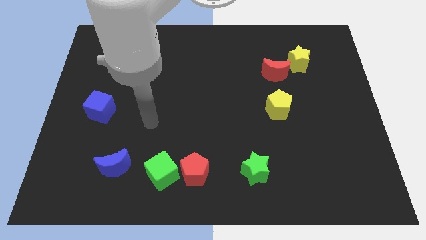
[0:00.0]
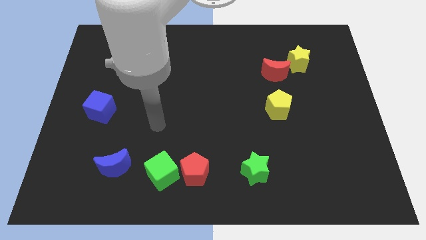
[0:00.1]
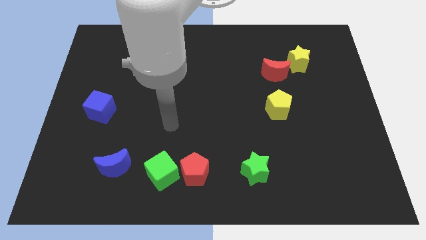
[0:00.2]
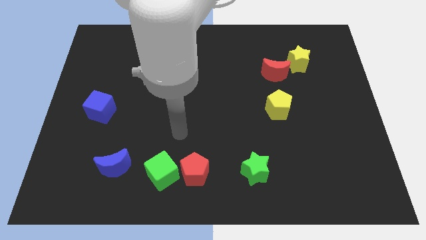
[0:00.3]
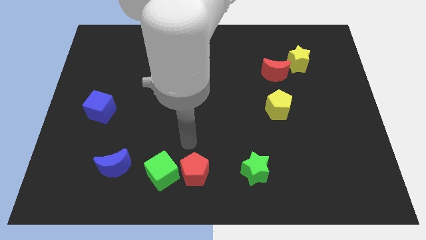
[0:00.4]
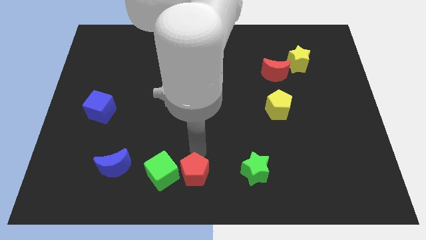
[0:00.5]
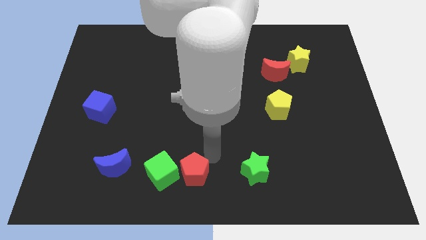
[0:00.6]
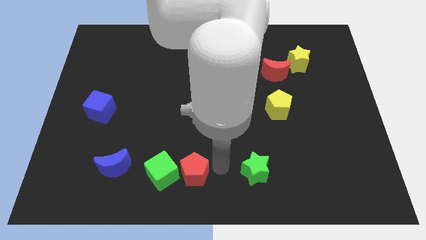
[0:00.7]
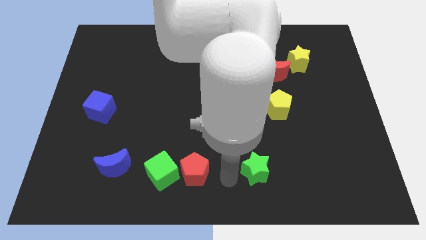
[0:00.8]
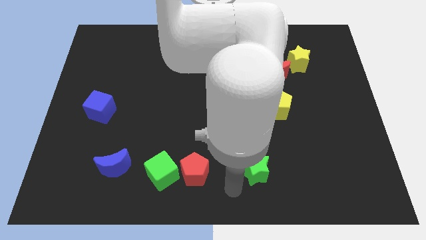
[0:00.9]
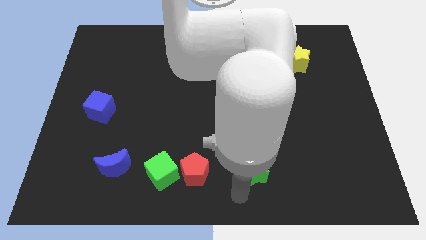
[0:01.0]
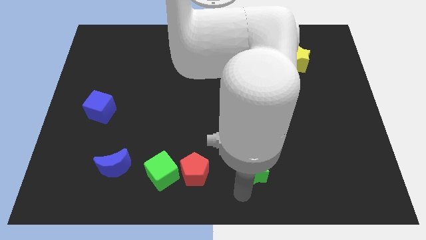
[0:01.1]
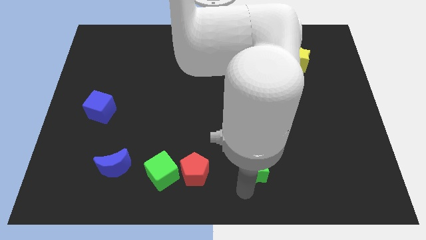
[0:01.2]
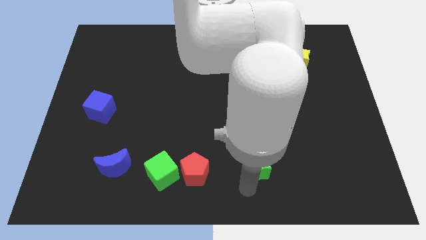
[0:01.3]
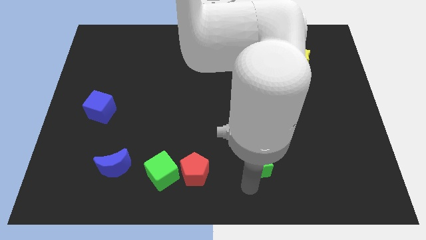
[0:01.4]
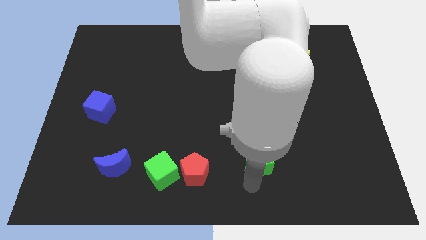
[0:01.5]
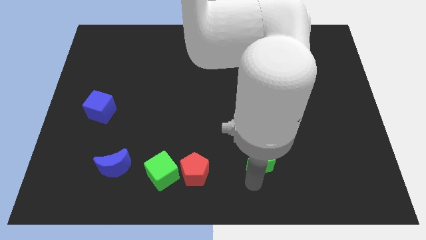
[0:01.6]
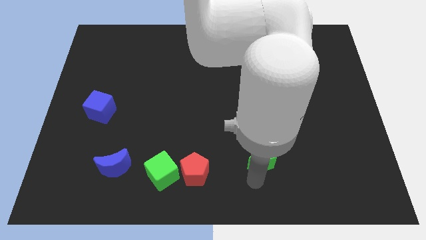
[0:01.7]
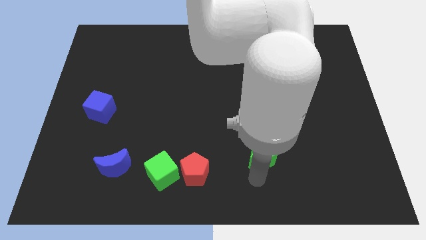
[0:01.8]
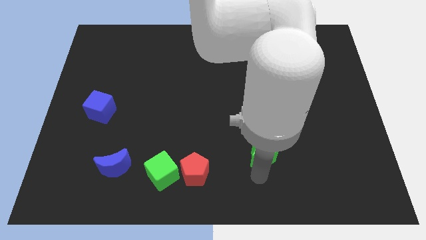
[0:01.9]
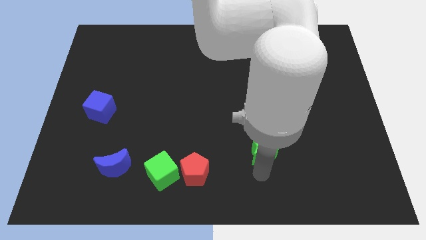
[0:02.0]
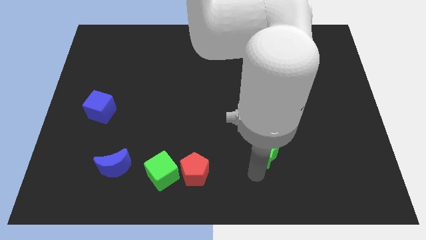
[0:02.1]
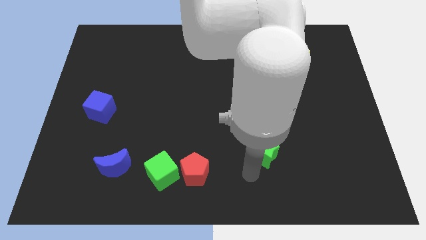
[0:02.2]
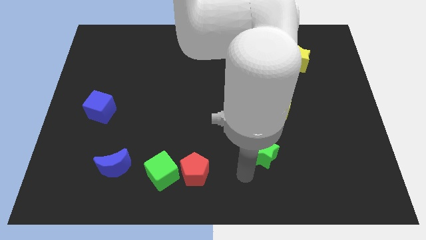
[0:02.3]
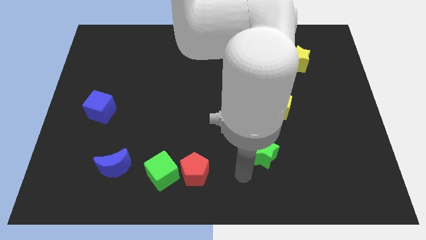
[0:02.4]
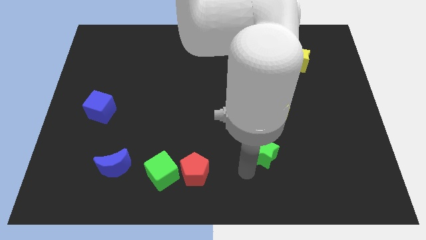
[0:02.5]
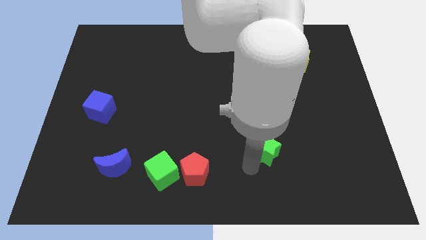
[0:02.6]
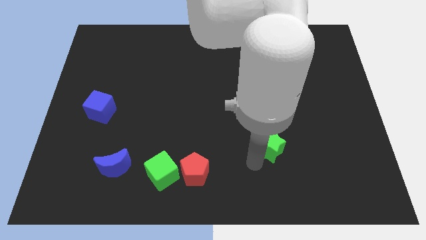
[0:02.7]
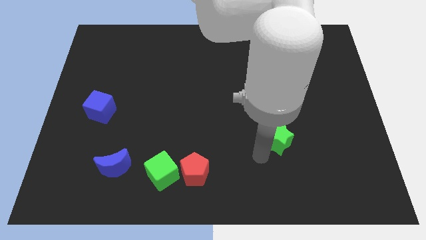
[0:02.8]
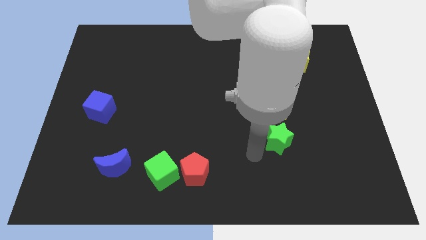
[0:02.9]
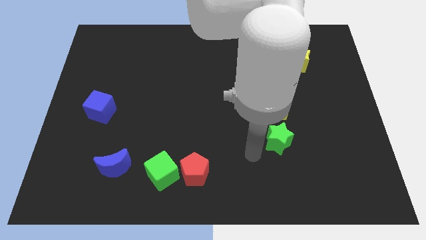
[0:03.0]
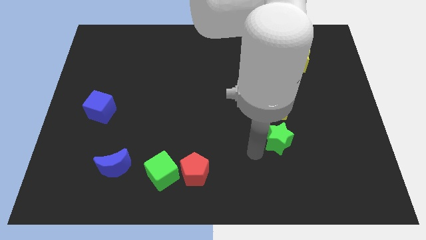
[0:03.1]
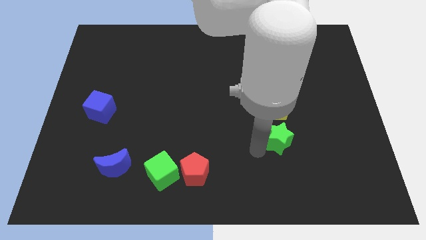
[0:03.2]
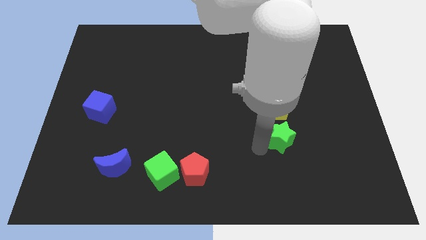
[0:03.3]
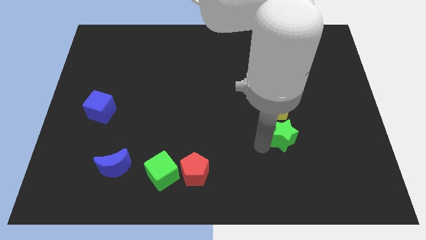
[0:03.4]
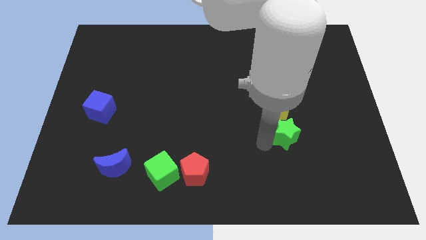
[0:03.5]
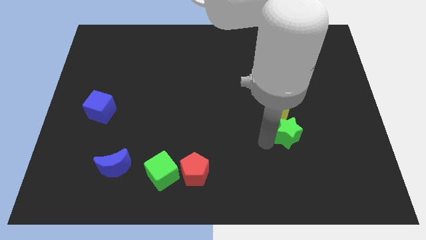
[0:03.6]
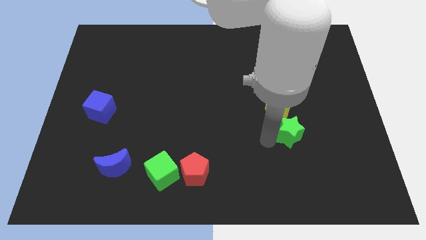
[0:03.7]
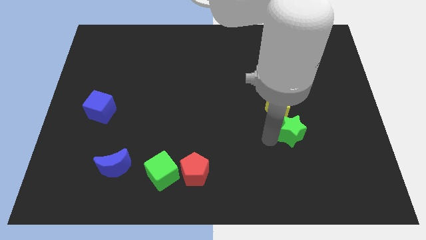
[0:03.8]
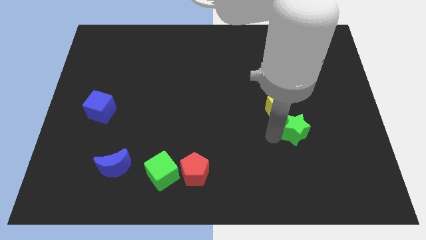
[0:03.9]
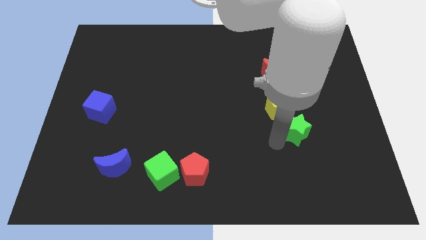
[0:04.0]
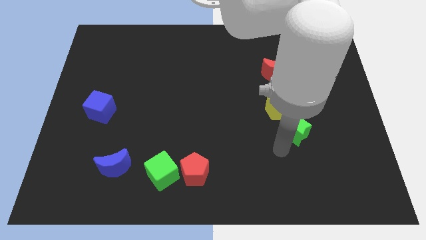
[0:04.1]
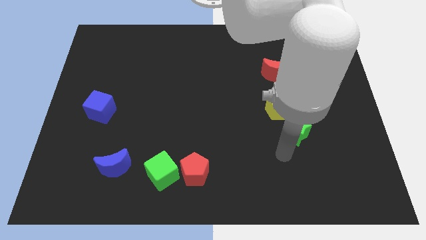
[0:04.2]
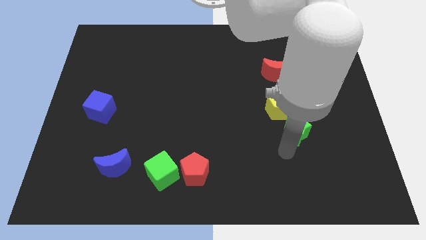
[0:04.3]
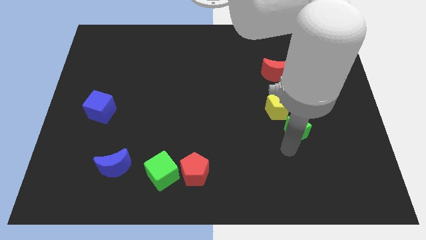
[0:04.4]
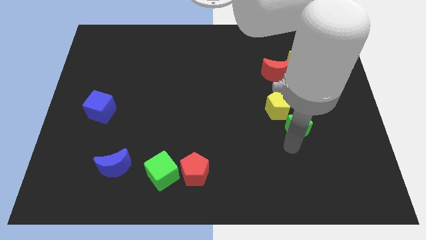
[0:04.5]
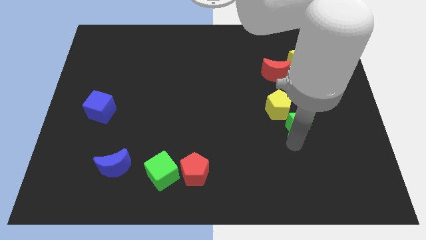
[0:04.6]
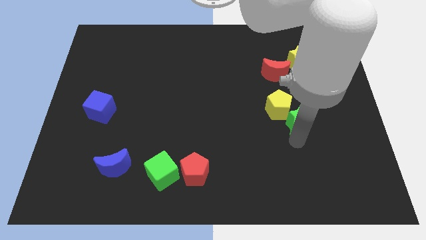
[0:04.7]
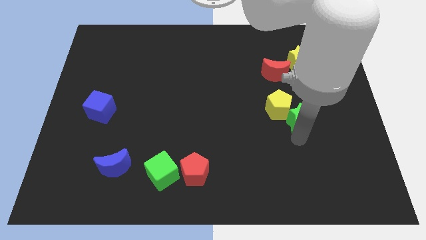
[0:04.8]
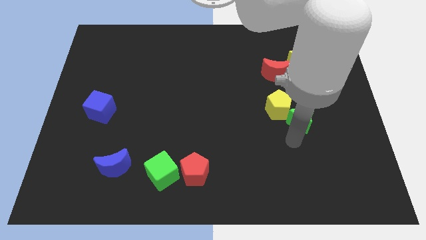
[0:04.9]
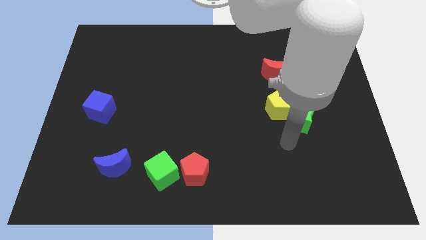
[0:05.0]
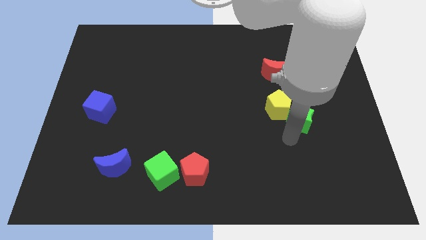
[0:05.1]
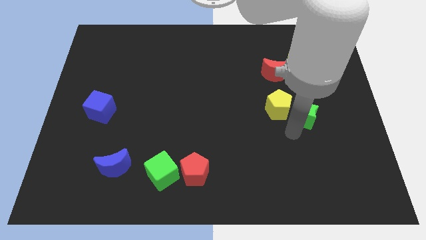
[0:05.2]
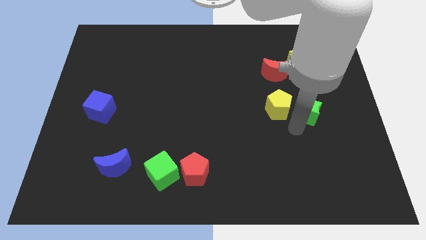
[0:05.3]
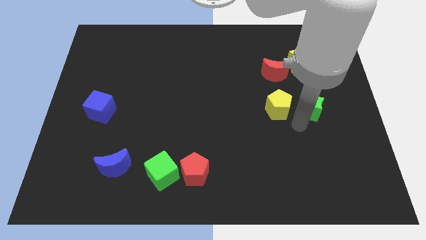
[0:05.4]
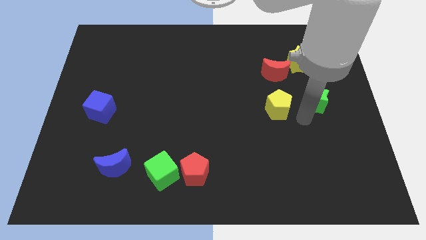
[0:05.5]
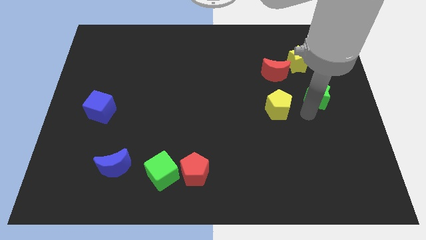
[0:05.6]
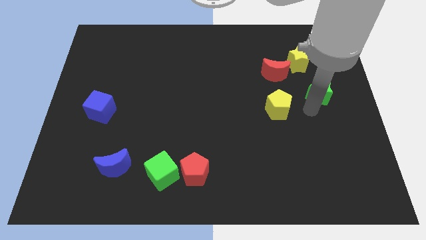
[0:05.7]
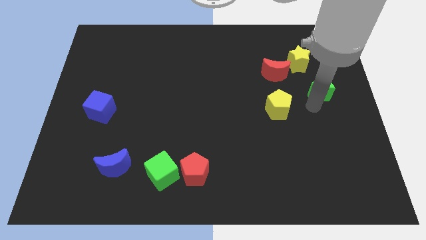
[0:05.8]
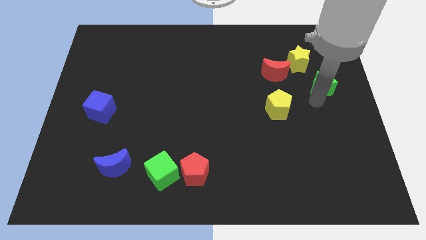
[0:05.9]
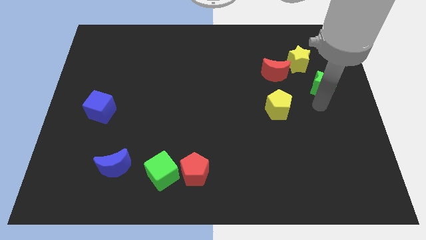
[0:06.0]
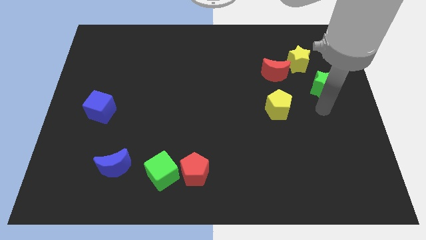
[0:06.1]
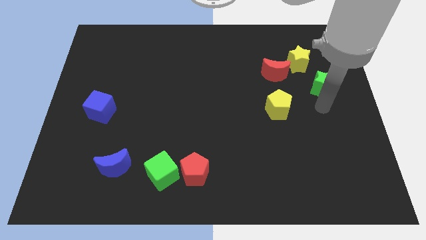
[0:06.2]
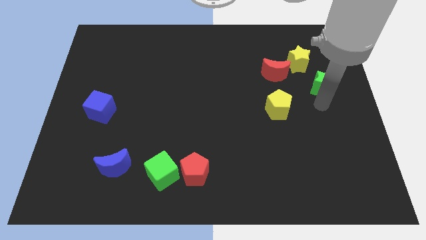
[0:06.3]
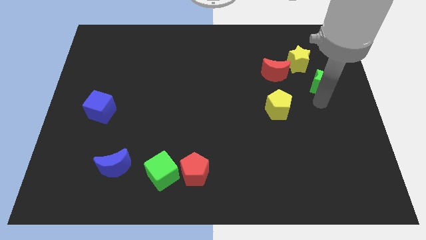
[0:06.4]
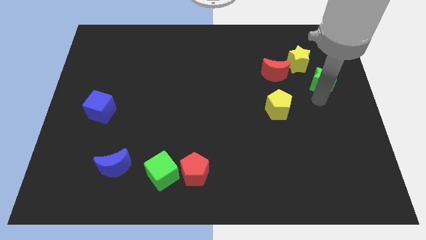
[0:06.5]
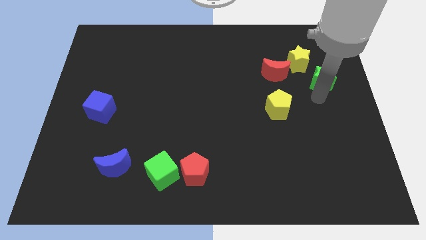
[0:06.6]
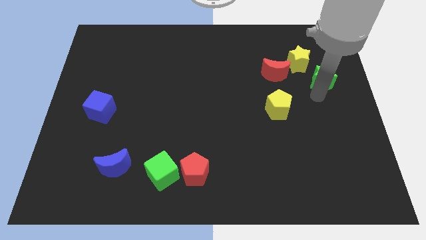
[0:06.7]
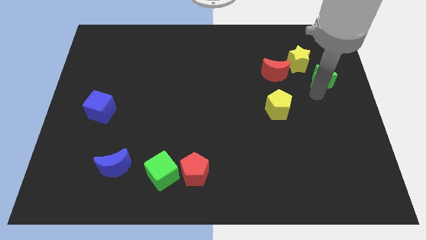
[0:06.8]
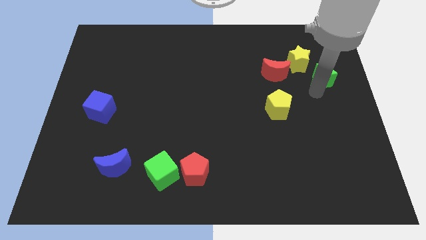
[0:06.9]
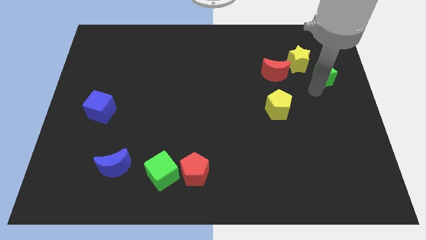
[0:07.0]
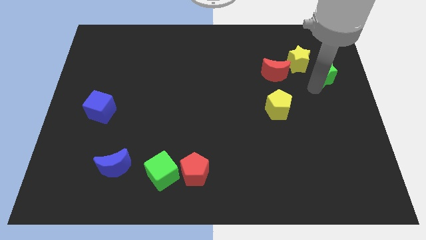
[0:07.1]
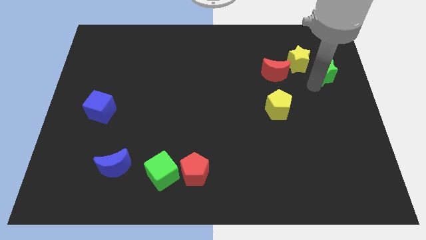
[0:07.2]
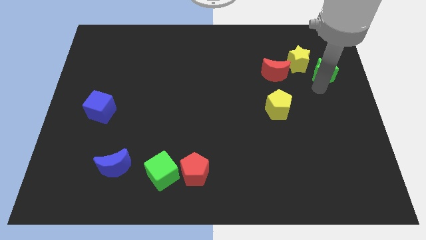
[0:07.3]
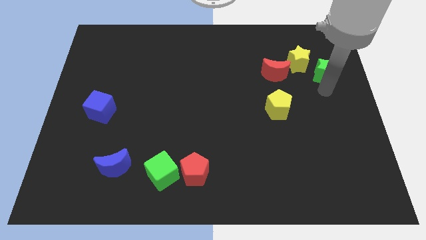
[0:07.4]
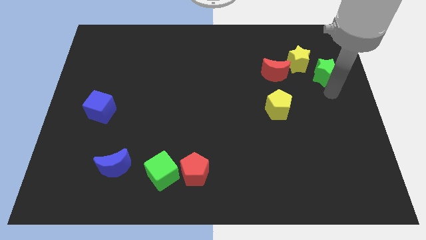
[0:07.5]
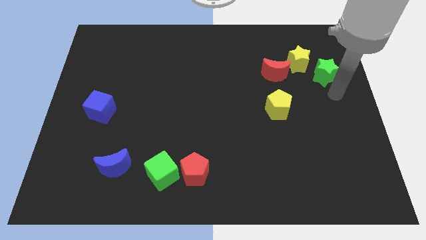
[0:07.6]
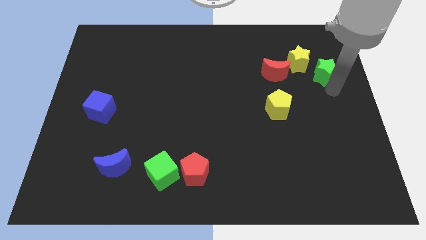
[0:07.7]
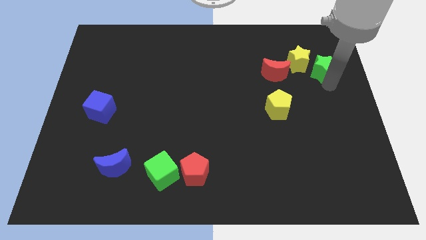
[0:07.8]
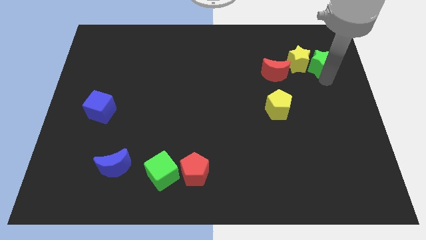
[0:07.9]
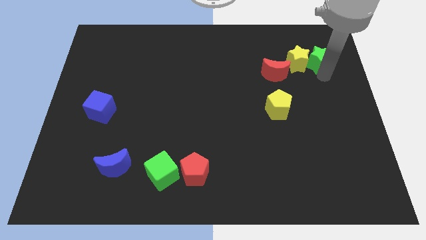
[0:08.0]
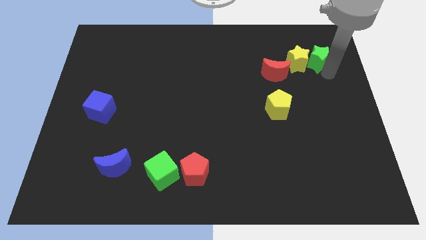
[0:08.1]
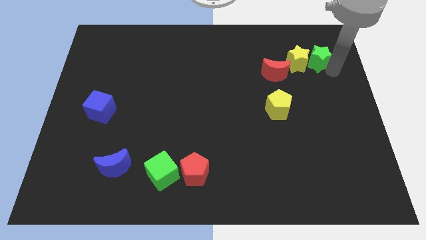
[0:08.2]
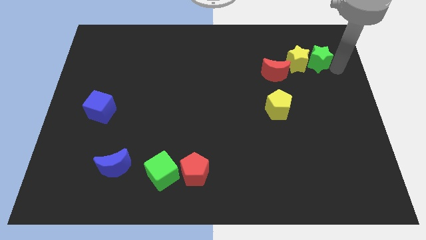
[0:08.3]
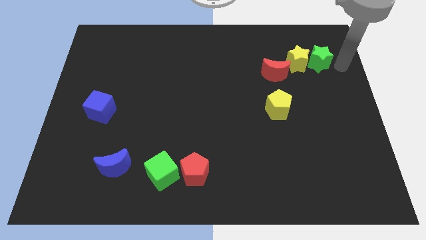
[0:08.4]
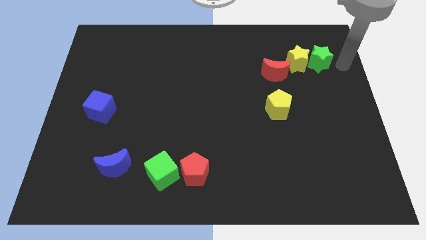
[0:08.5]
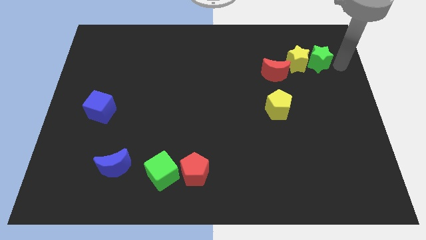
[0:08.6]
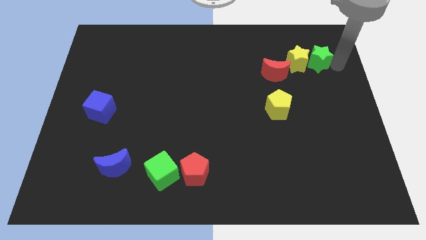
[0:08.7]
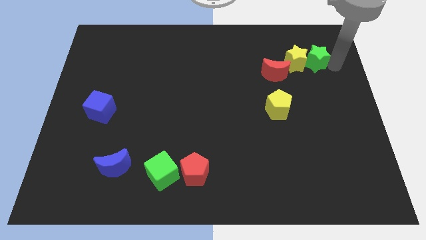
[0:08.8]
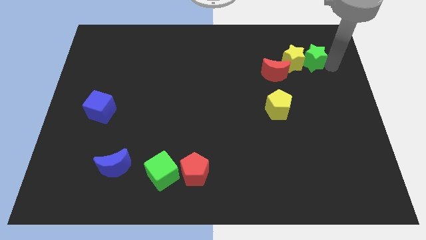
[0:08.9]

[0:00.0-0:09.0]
push the green star diagonally up and to the right of the red moon
